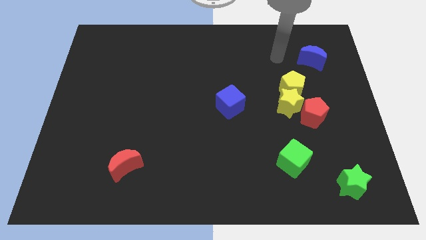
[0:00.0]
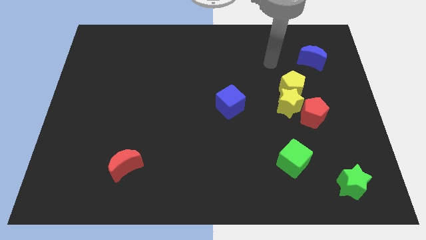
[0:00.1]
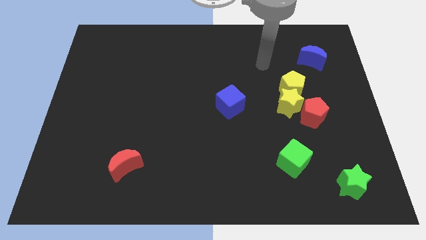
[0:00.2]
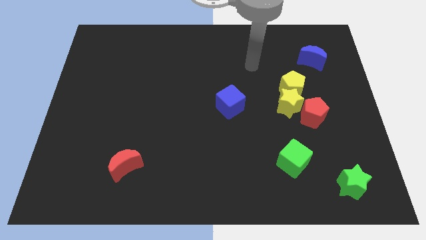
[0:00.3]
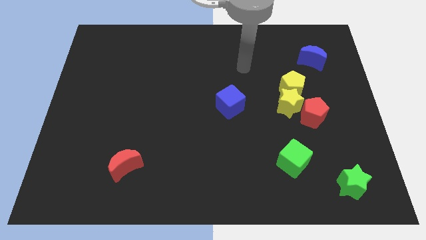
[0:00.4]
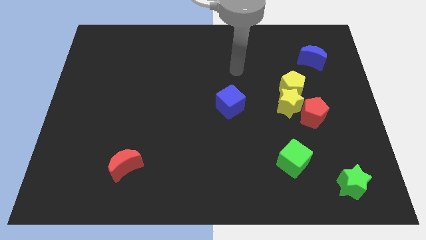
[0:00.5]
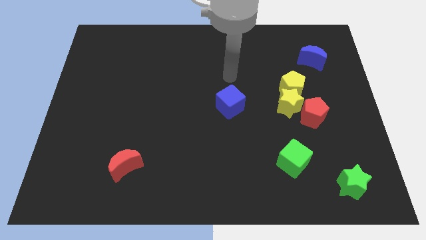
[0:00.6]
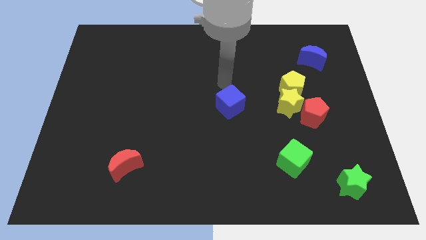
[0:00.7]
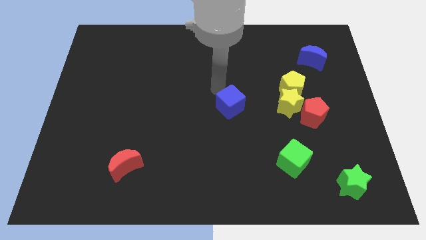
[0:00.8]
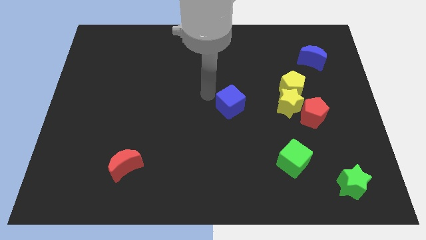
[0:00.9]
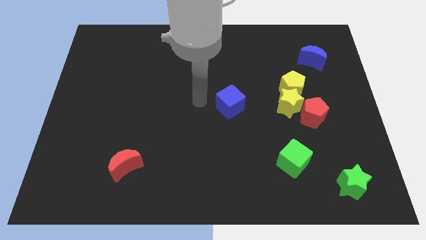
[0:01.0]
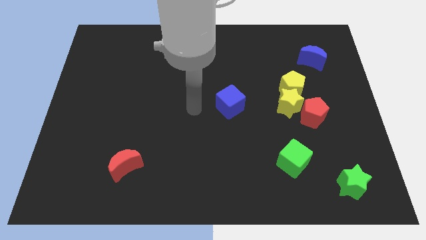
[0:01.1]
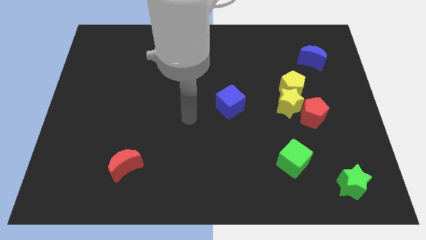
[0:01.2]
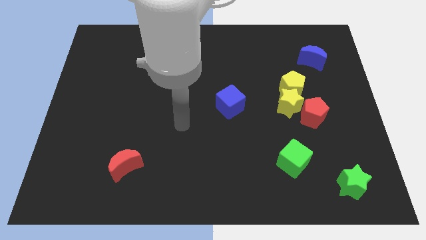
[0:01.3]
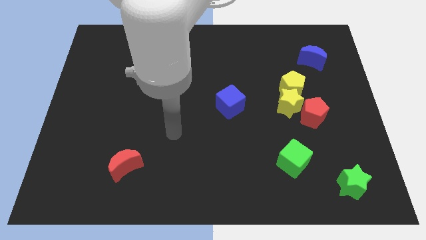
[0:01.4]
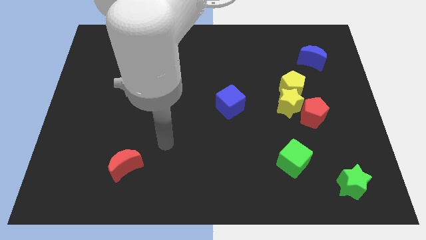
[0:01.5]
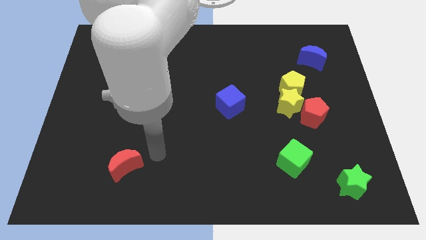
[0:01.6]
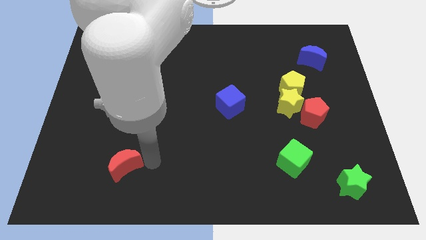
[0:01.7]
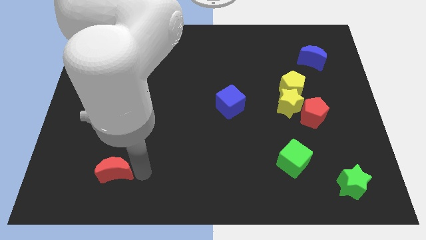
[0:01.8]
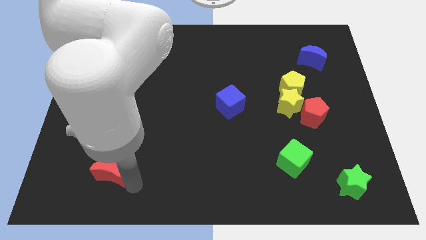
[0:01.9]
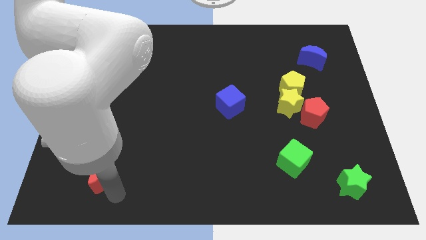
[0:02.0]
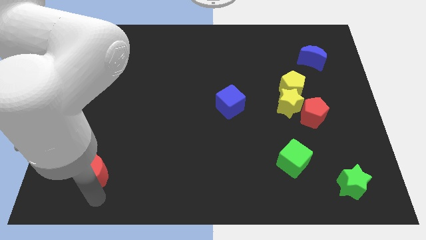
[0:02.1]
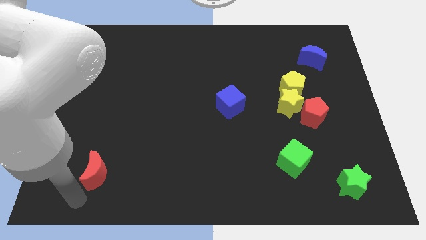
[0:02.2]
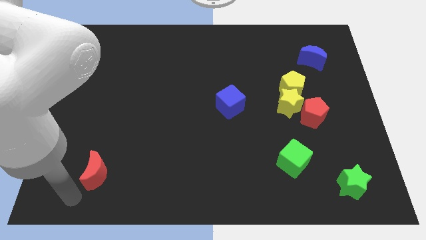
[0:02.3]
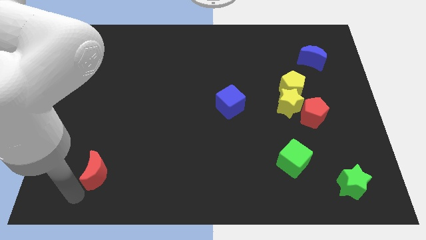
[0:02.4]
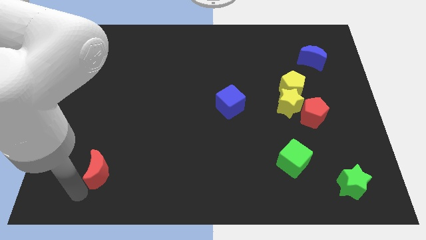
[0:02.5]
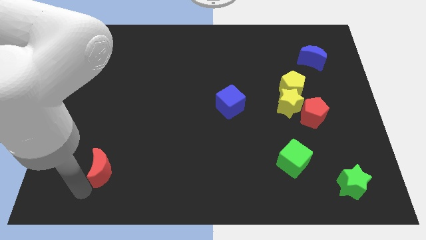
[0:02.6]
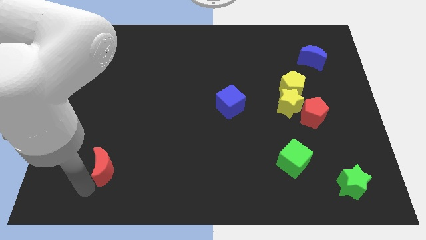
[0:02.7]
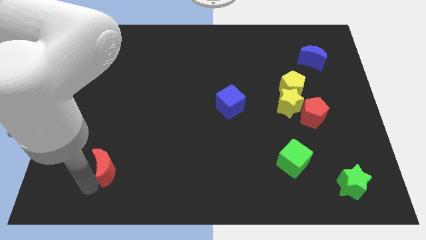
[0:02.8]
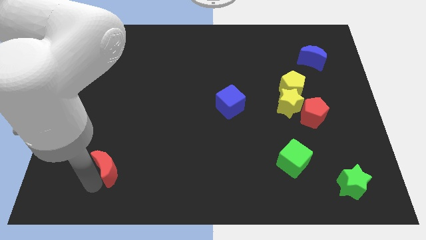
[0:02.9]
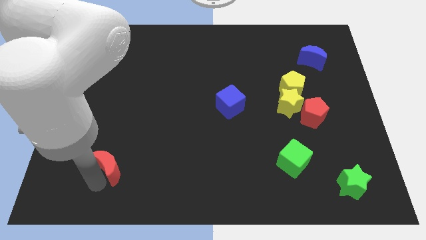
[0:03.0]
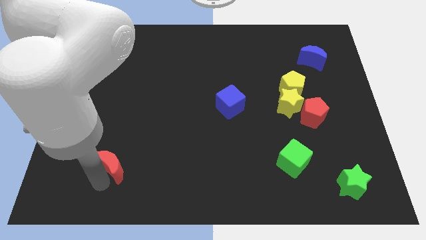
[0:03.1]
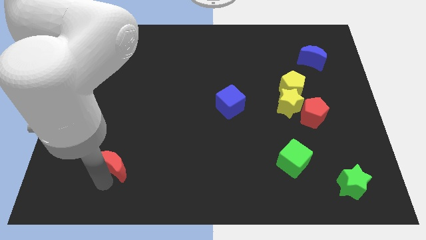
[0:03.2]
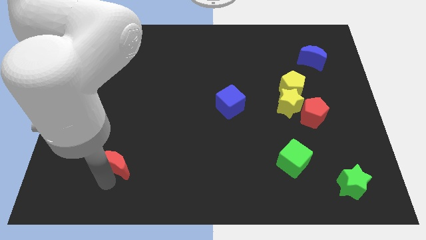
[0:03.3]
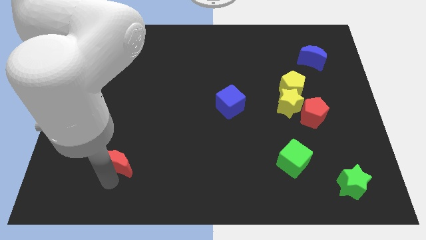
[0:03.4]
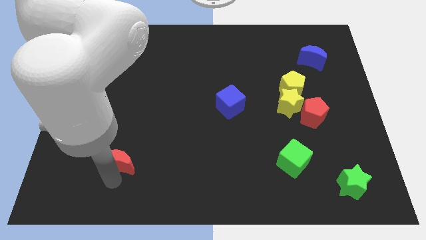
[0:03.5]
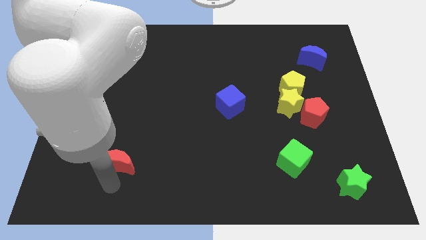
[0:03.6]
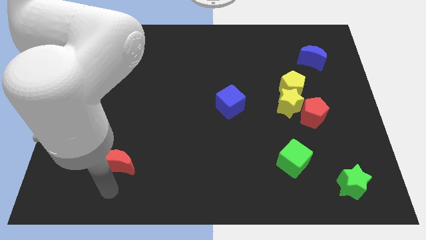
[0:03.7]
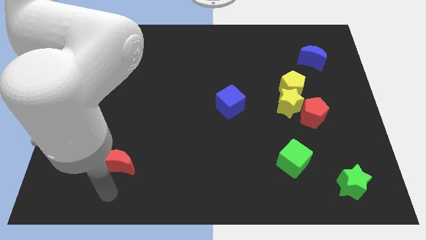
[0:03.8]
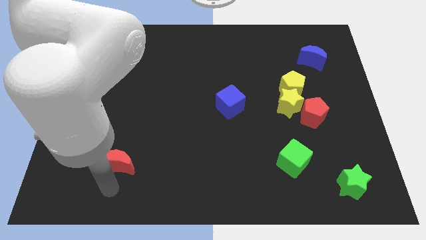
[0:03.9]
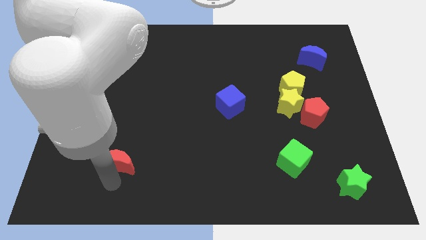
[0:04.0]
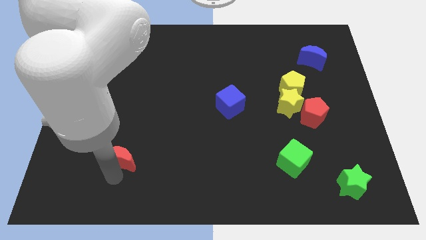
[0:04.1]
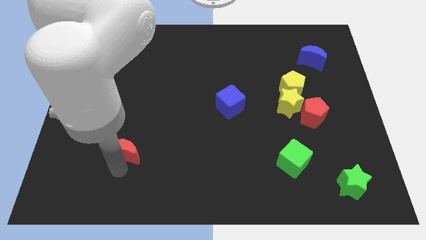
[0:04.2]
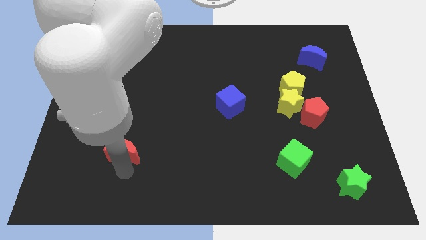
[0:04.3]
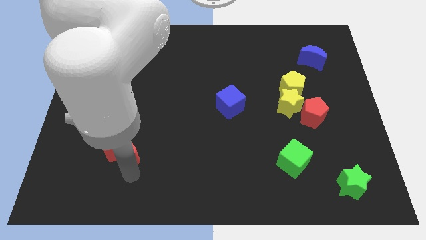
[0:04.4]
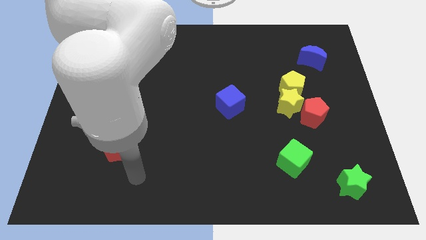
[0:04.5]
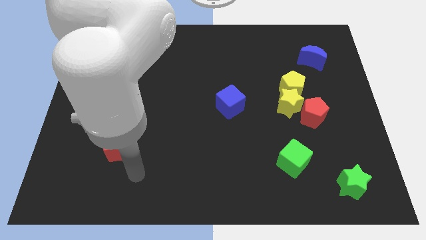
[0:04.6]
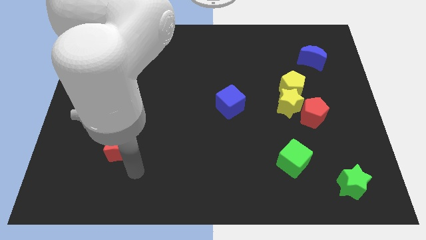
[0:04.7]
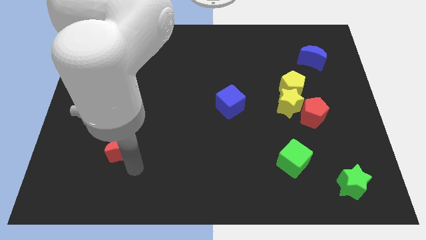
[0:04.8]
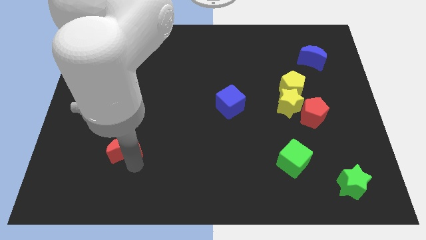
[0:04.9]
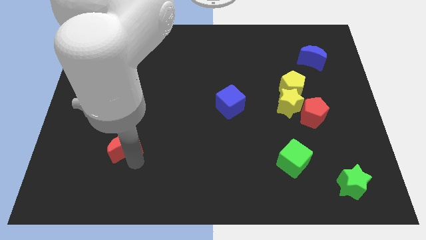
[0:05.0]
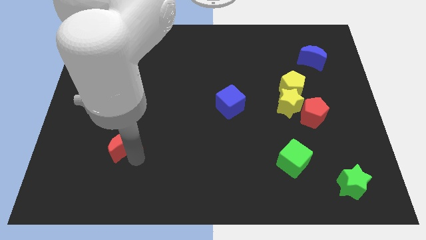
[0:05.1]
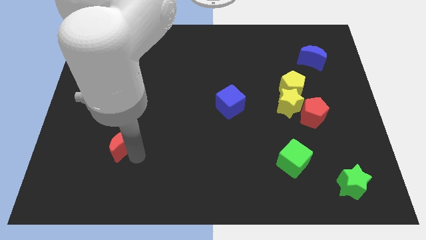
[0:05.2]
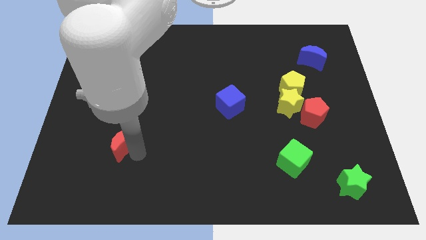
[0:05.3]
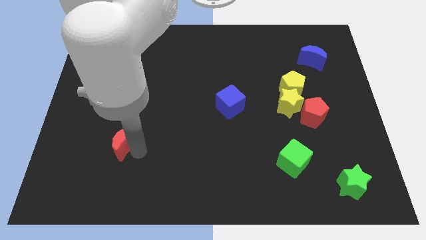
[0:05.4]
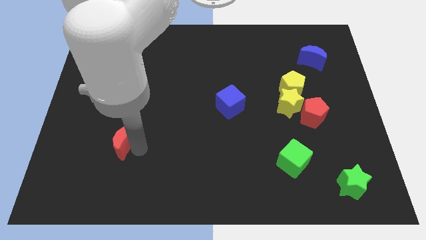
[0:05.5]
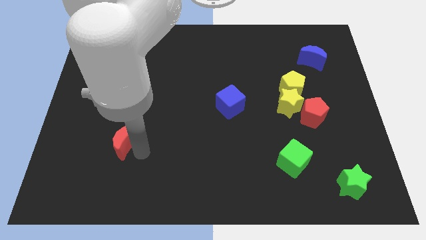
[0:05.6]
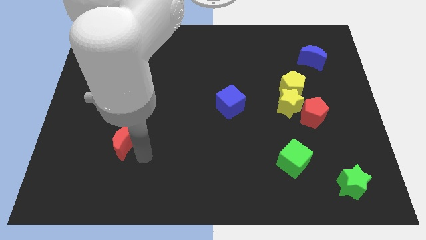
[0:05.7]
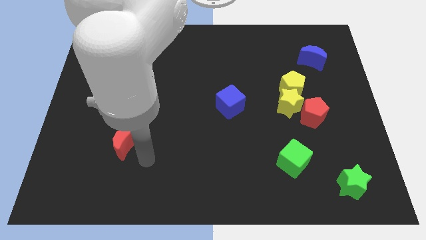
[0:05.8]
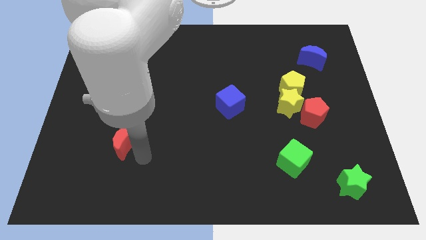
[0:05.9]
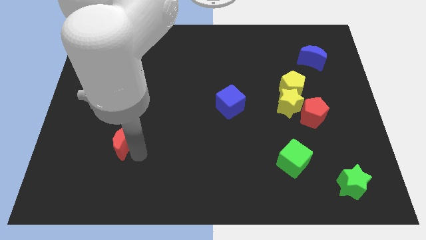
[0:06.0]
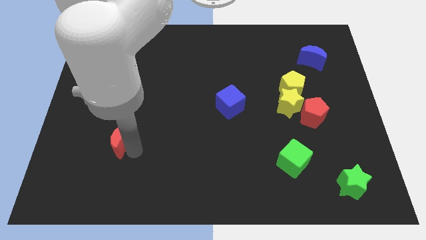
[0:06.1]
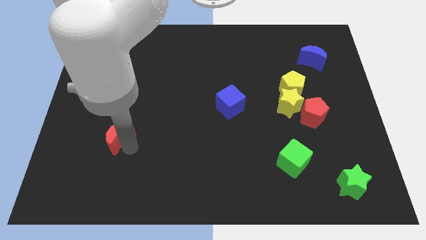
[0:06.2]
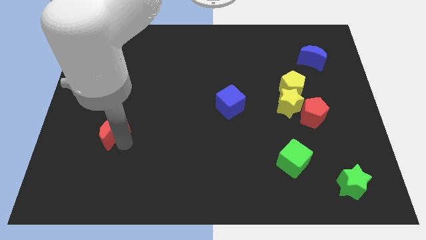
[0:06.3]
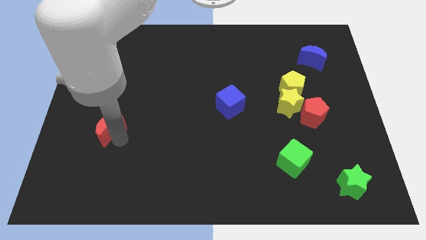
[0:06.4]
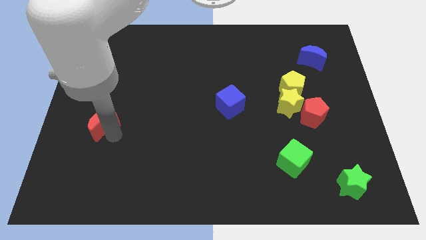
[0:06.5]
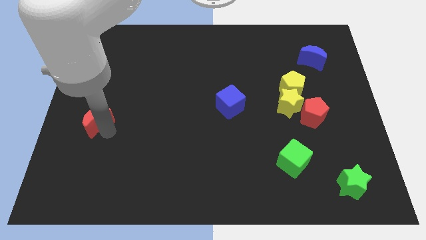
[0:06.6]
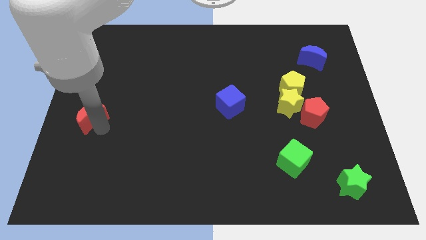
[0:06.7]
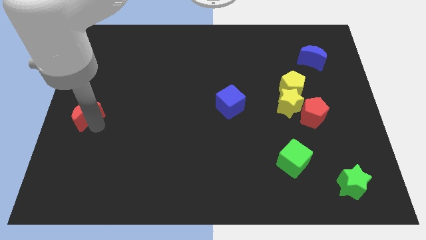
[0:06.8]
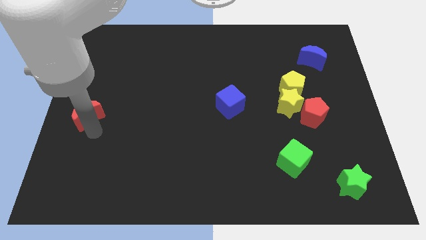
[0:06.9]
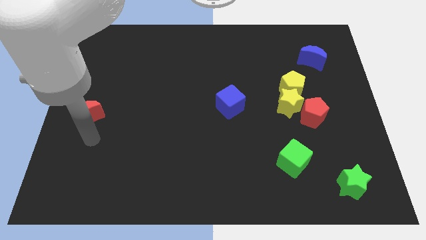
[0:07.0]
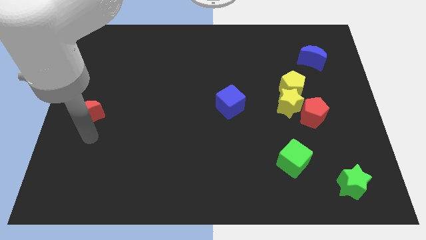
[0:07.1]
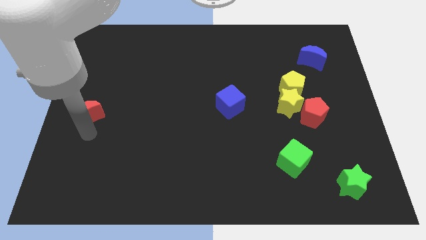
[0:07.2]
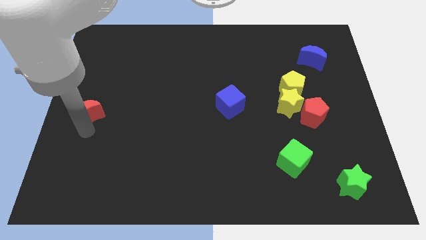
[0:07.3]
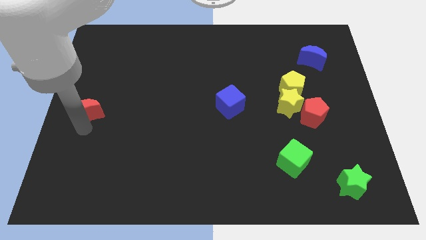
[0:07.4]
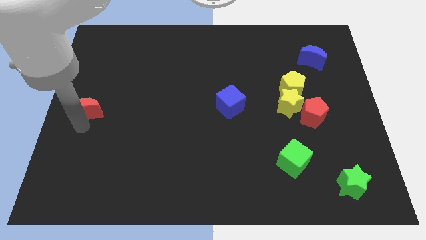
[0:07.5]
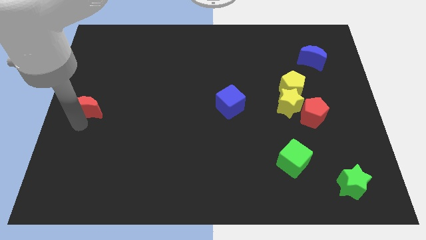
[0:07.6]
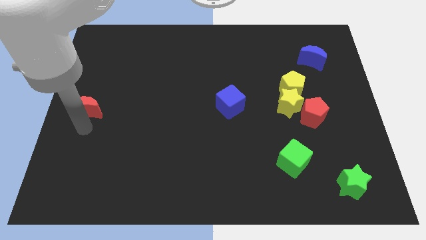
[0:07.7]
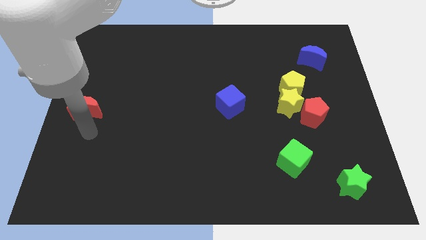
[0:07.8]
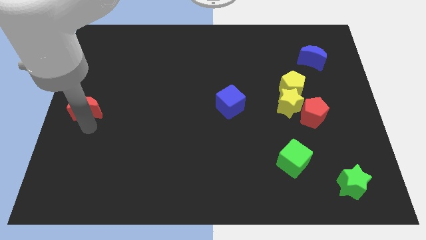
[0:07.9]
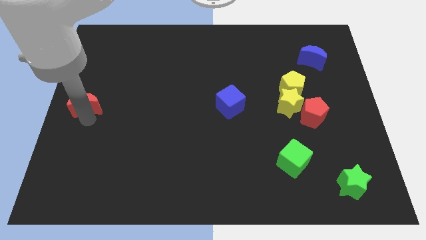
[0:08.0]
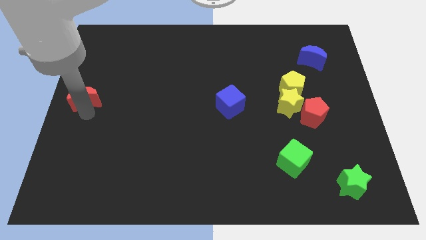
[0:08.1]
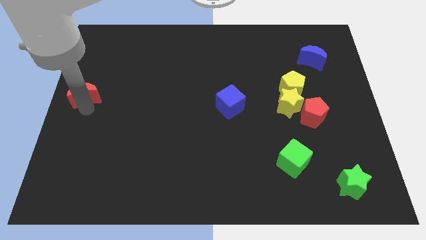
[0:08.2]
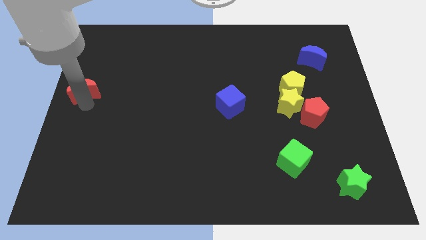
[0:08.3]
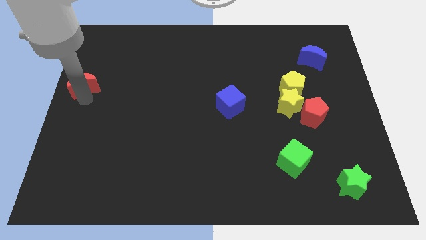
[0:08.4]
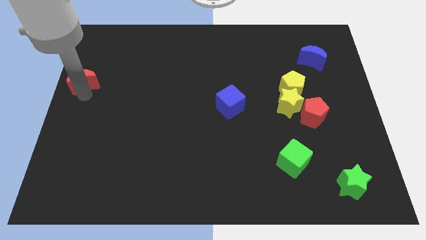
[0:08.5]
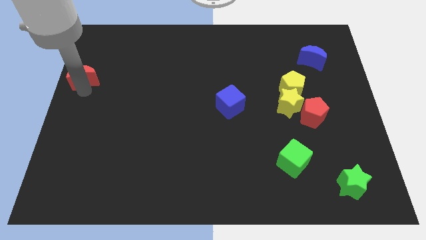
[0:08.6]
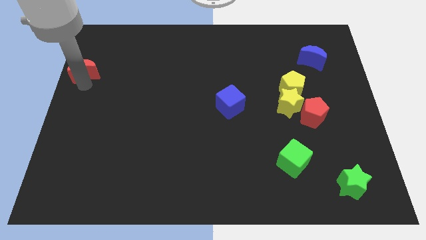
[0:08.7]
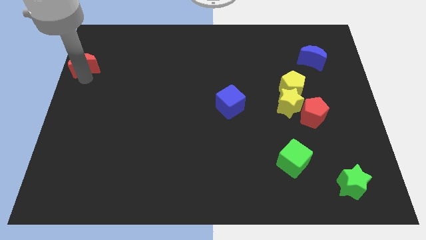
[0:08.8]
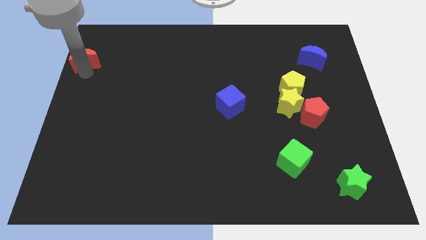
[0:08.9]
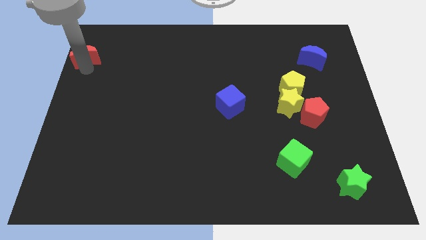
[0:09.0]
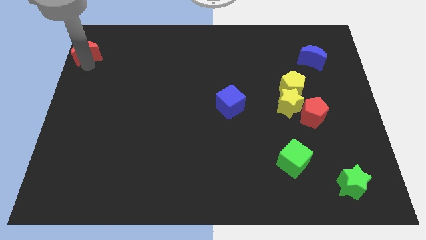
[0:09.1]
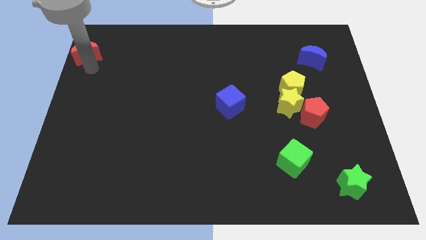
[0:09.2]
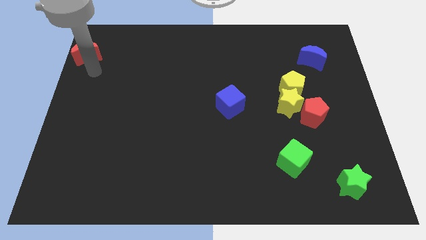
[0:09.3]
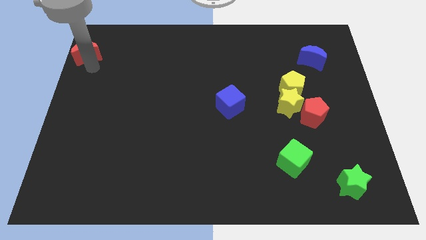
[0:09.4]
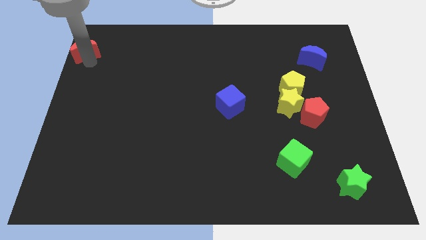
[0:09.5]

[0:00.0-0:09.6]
slide the red moon to the top left
